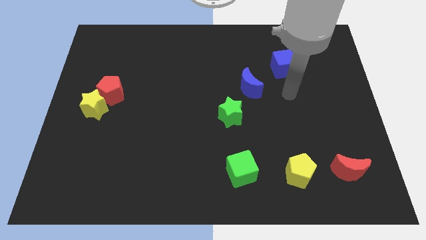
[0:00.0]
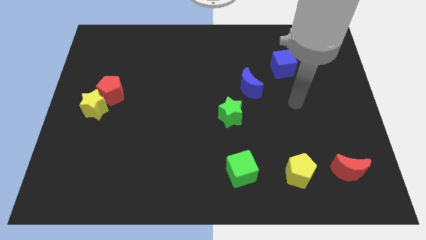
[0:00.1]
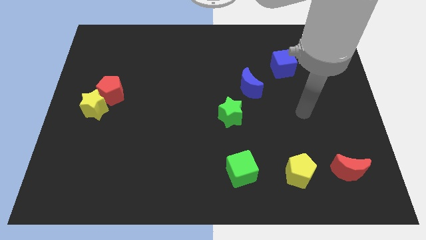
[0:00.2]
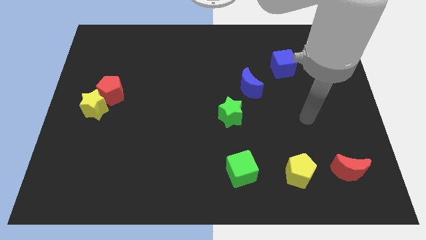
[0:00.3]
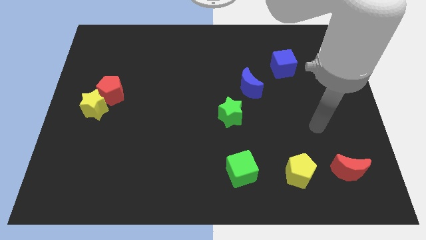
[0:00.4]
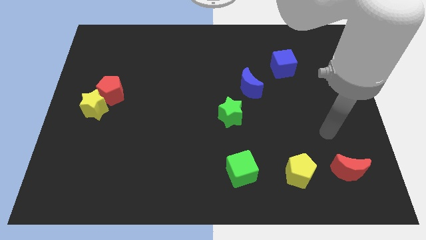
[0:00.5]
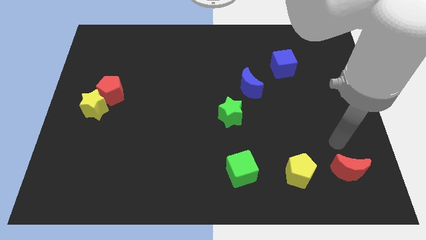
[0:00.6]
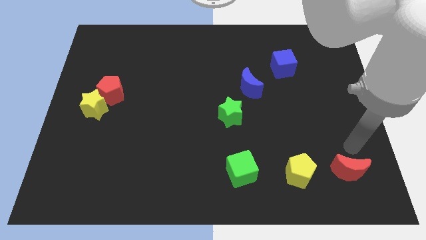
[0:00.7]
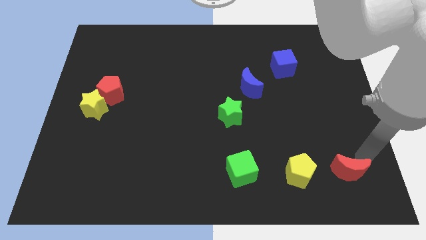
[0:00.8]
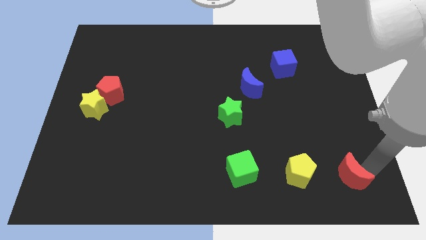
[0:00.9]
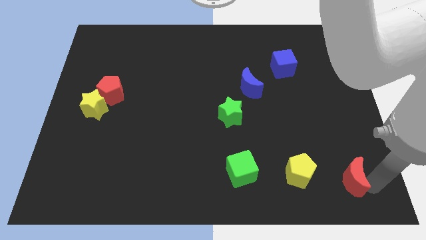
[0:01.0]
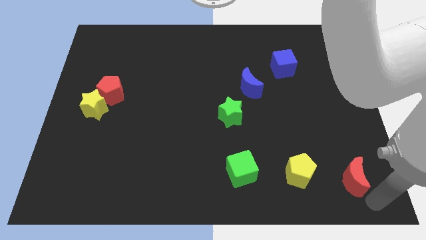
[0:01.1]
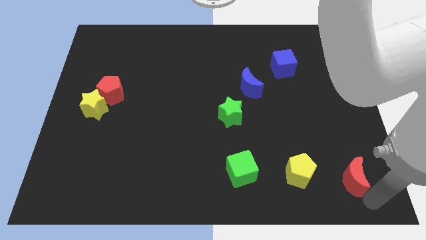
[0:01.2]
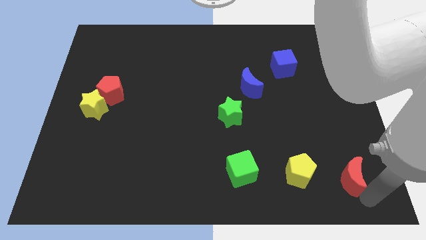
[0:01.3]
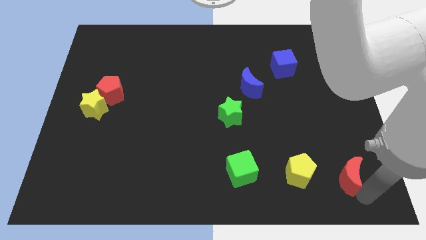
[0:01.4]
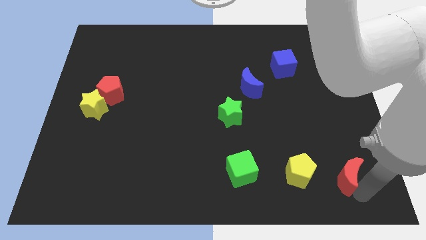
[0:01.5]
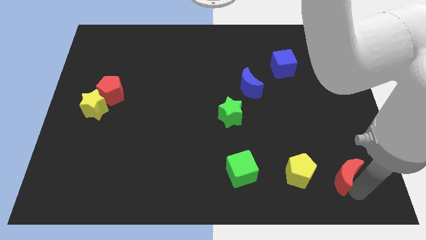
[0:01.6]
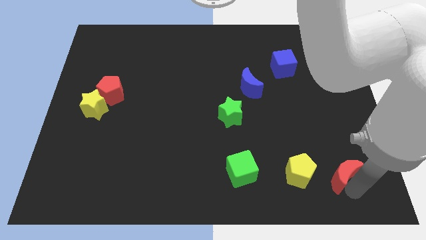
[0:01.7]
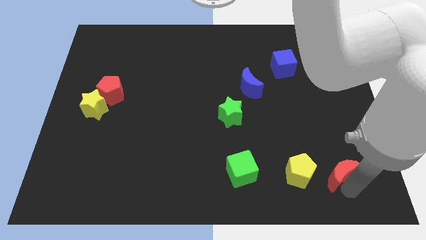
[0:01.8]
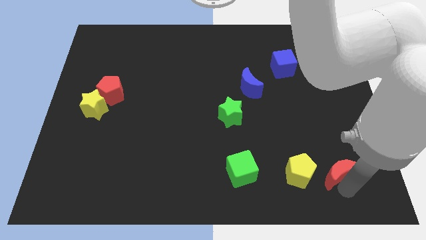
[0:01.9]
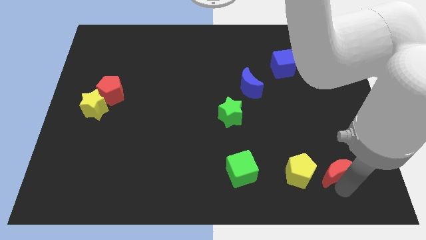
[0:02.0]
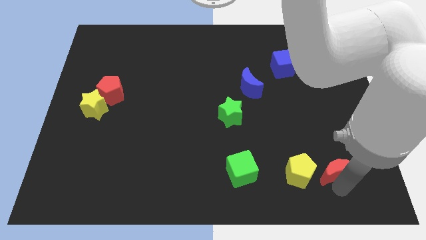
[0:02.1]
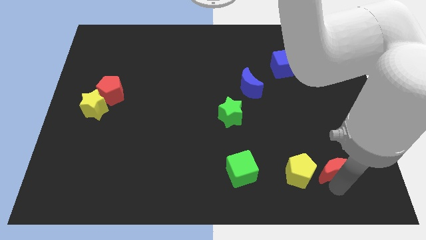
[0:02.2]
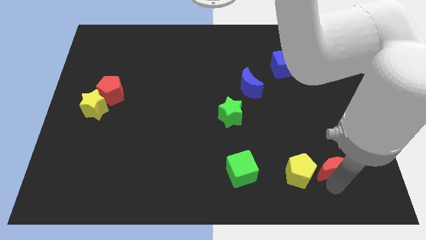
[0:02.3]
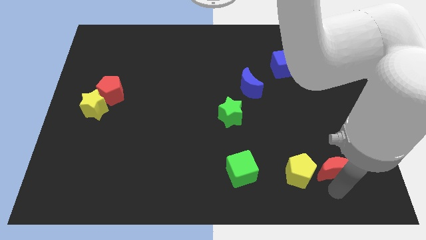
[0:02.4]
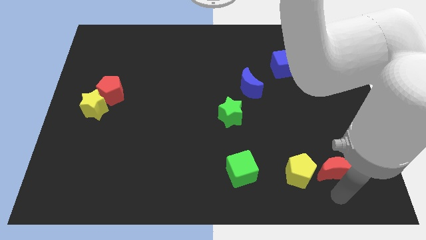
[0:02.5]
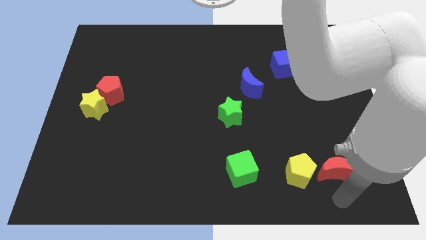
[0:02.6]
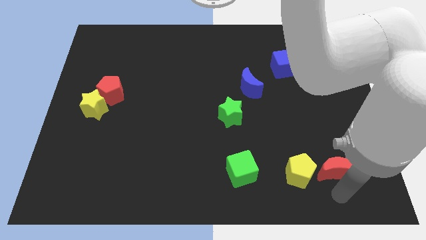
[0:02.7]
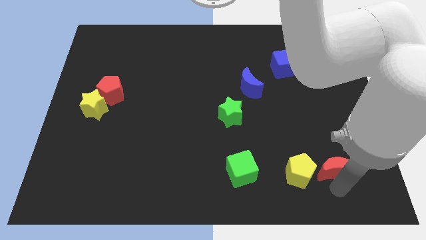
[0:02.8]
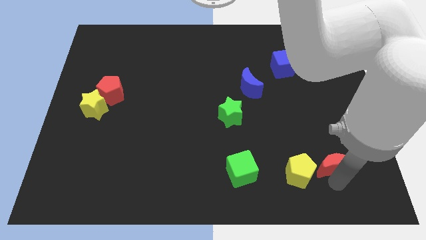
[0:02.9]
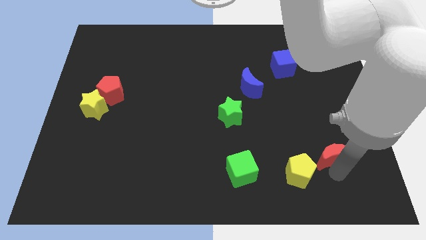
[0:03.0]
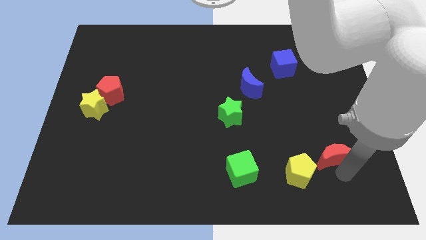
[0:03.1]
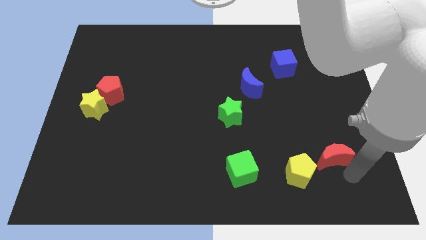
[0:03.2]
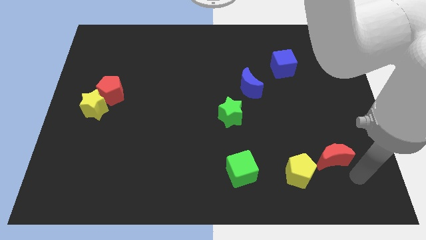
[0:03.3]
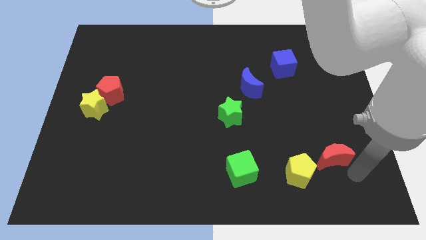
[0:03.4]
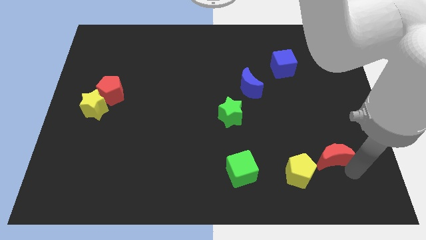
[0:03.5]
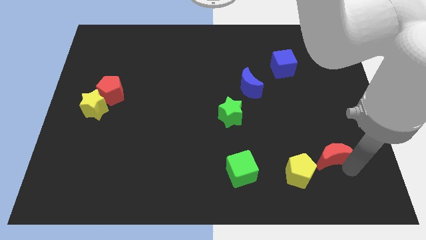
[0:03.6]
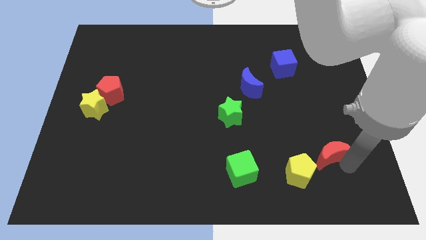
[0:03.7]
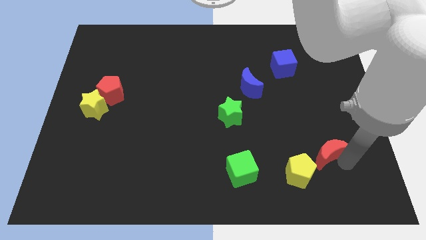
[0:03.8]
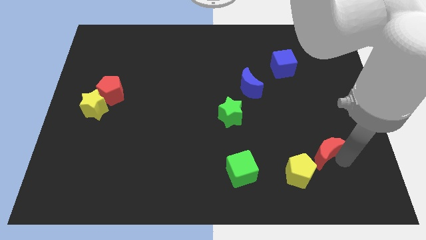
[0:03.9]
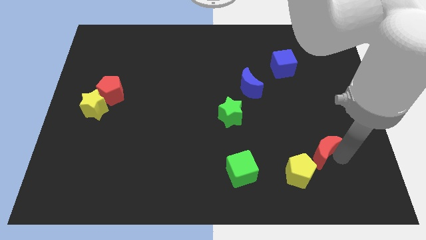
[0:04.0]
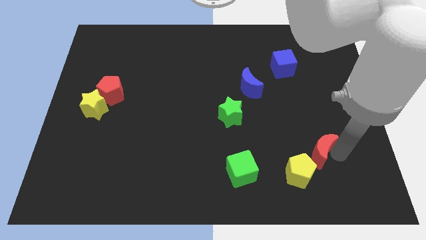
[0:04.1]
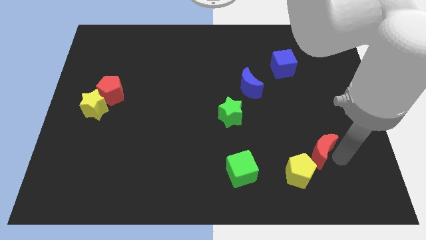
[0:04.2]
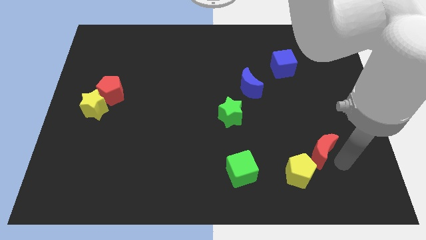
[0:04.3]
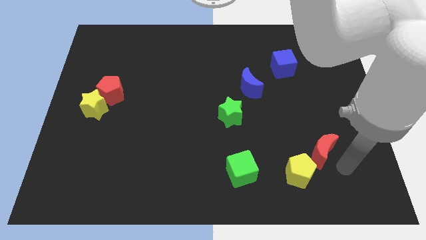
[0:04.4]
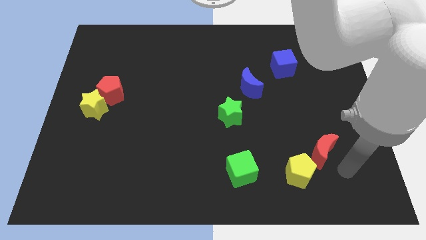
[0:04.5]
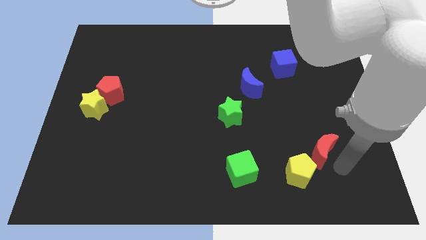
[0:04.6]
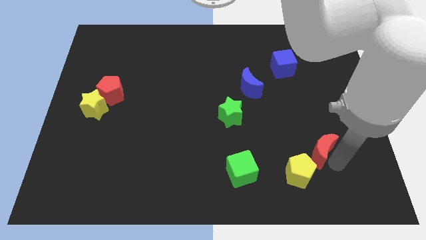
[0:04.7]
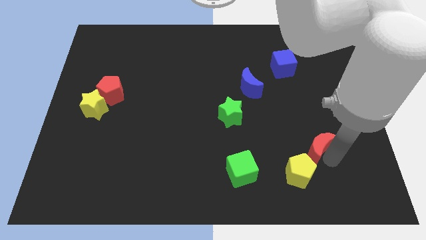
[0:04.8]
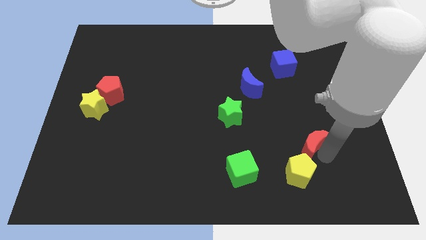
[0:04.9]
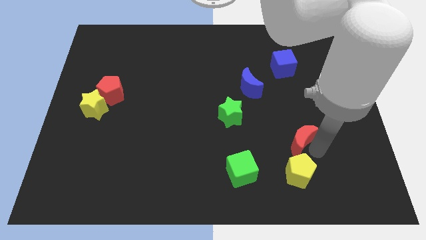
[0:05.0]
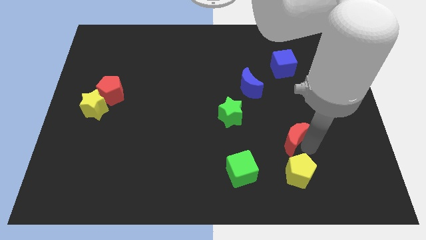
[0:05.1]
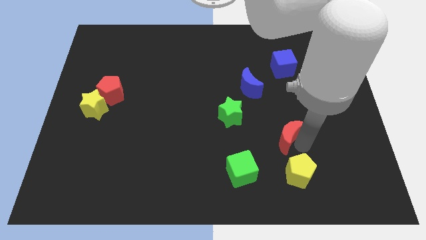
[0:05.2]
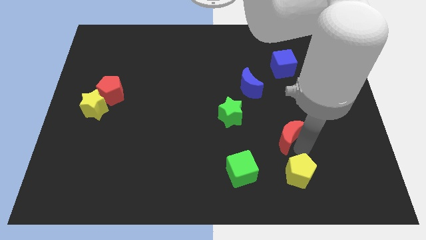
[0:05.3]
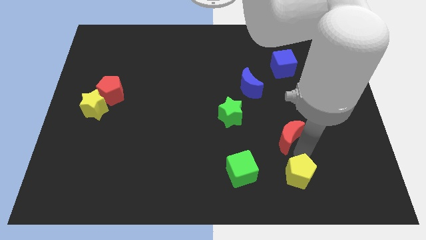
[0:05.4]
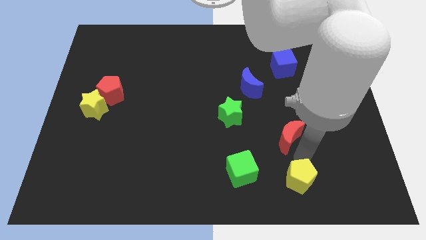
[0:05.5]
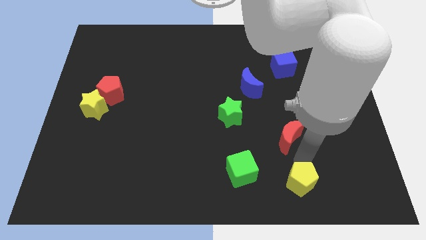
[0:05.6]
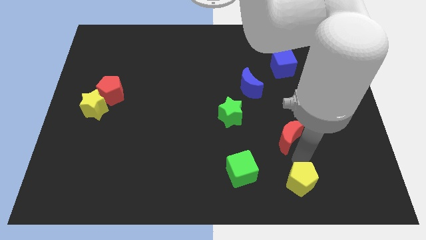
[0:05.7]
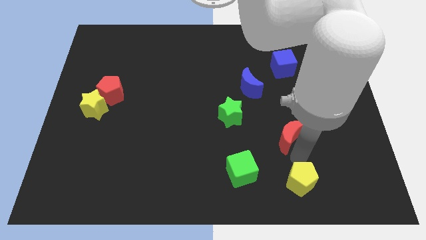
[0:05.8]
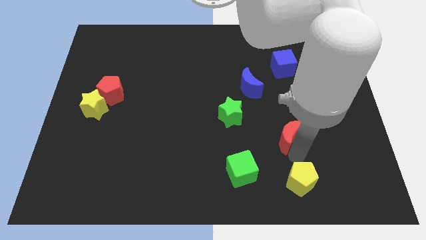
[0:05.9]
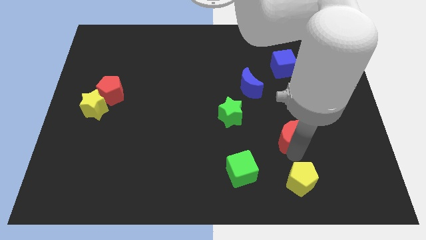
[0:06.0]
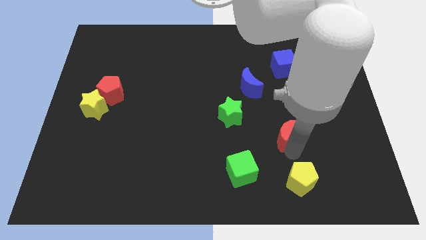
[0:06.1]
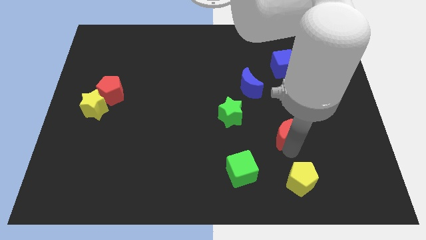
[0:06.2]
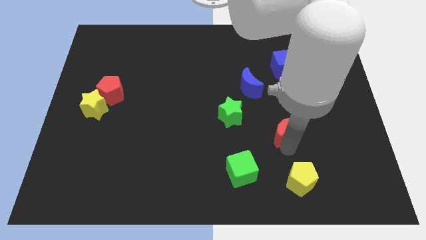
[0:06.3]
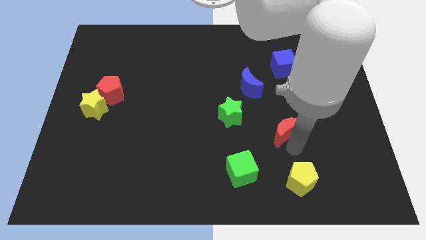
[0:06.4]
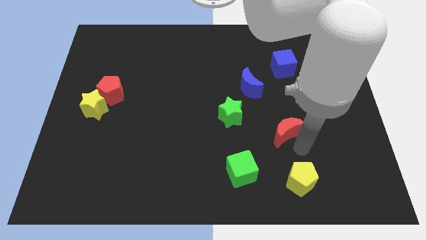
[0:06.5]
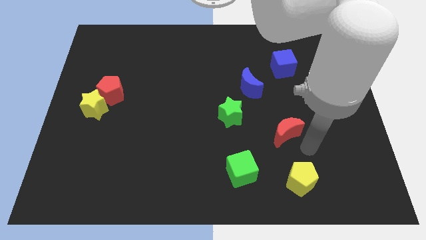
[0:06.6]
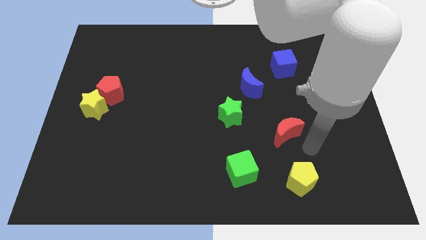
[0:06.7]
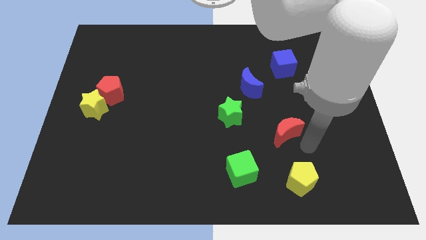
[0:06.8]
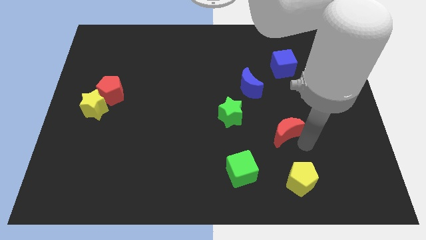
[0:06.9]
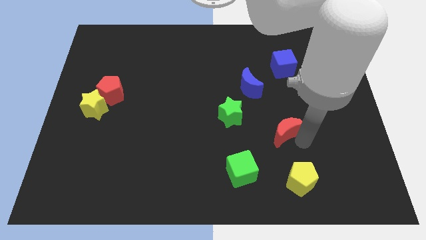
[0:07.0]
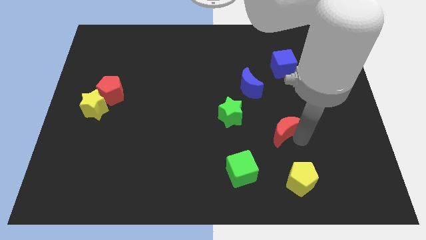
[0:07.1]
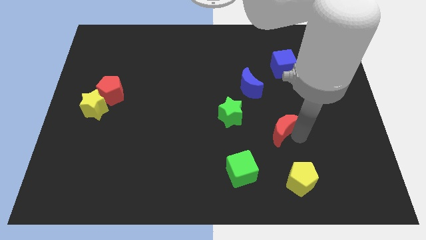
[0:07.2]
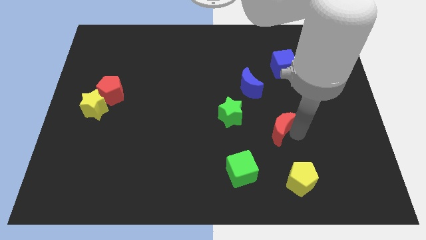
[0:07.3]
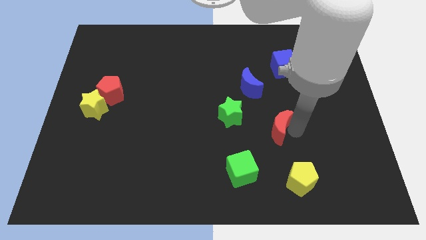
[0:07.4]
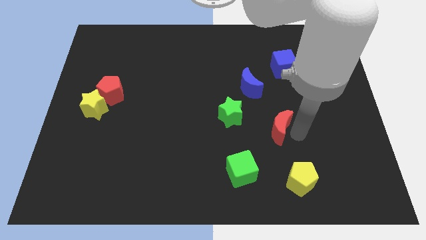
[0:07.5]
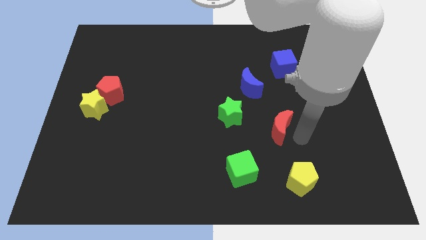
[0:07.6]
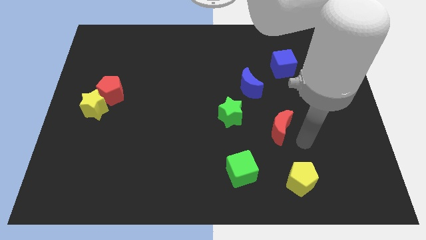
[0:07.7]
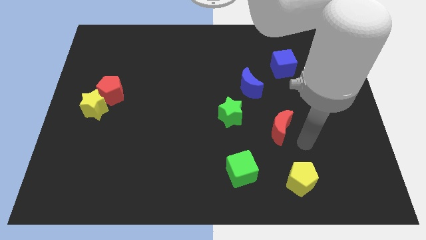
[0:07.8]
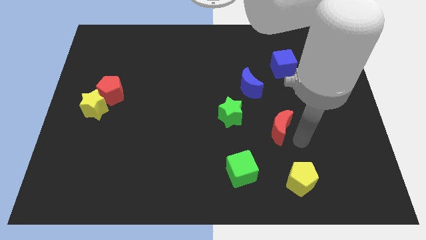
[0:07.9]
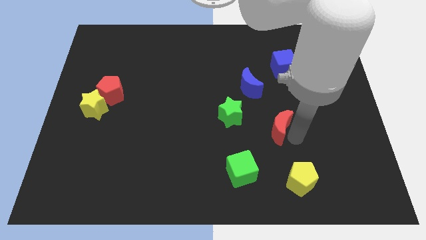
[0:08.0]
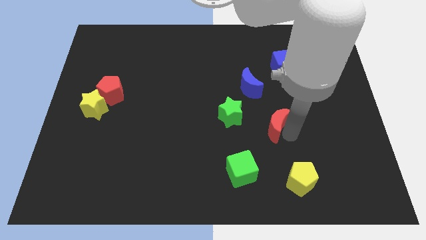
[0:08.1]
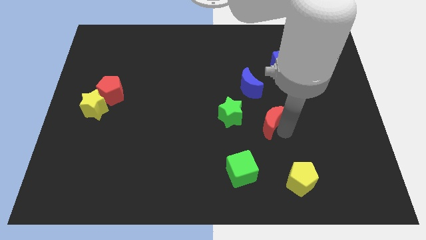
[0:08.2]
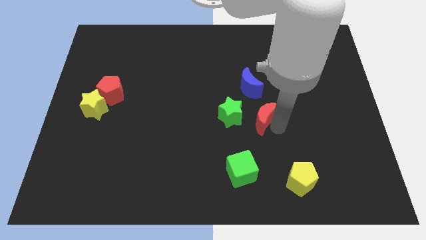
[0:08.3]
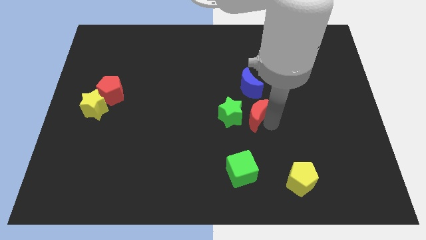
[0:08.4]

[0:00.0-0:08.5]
put the red moon to the center of the board
